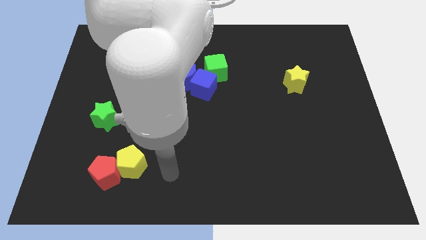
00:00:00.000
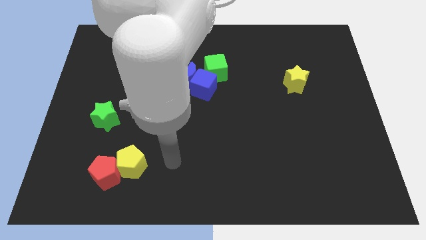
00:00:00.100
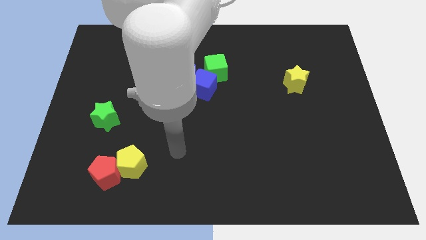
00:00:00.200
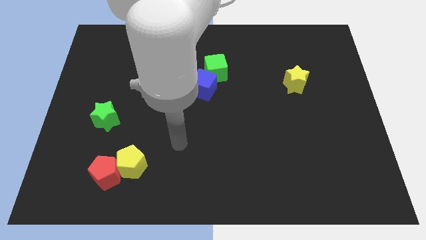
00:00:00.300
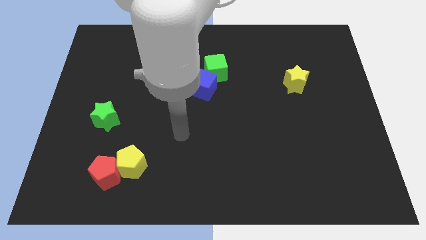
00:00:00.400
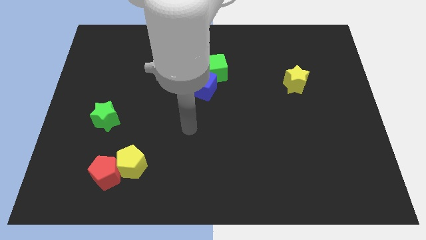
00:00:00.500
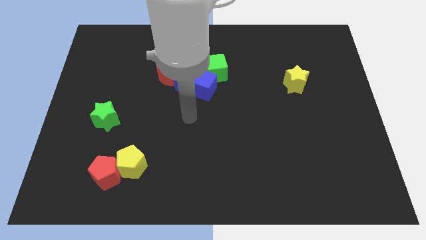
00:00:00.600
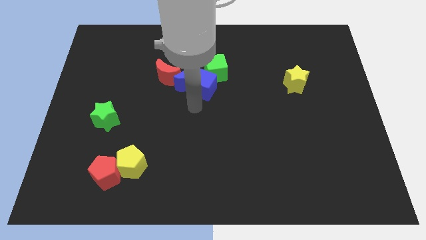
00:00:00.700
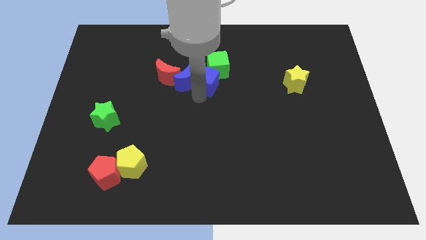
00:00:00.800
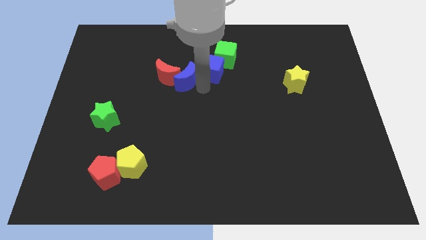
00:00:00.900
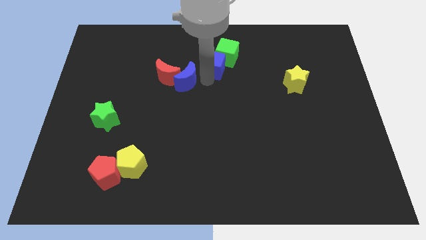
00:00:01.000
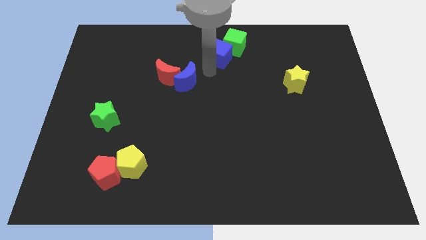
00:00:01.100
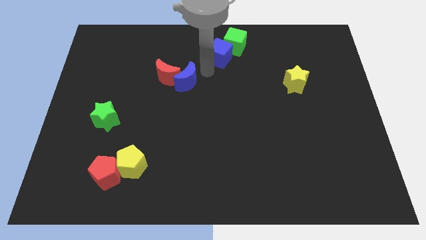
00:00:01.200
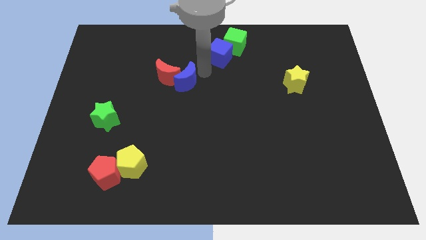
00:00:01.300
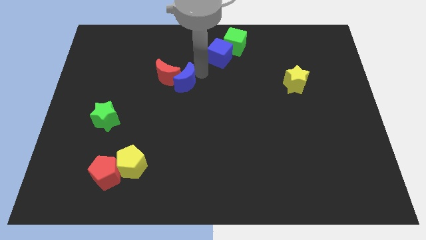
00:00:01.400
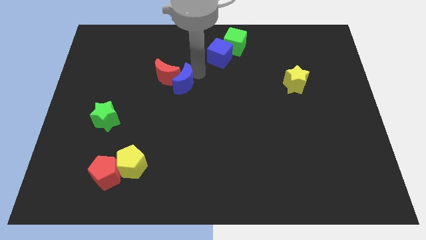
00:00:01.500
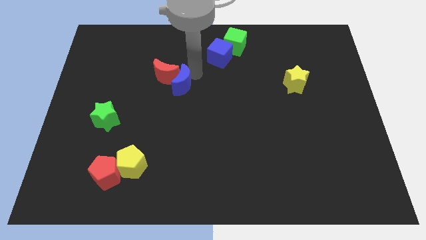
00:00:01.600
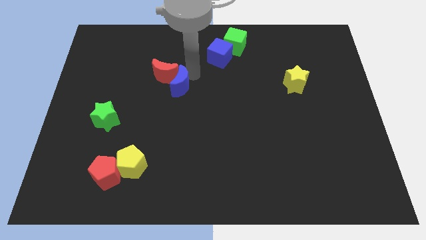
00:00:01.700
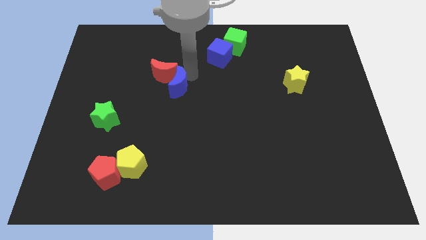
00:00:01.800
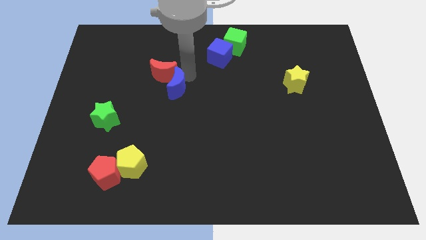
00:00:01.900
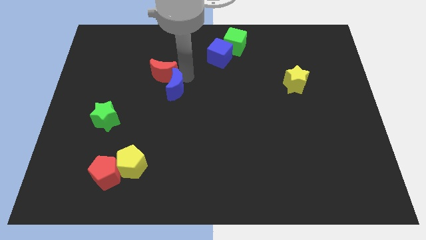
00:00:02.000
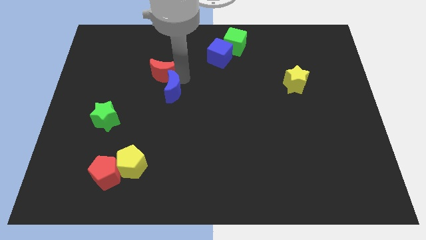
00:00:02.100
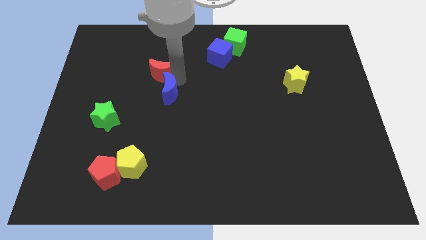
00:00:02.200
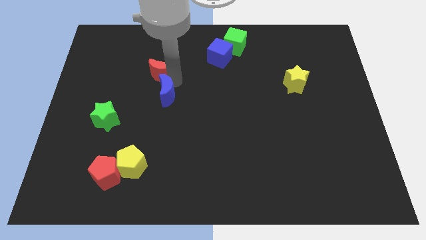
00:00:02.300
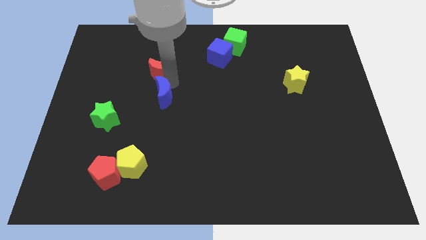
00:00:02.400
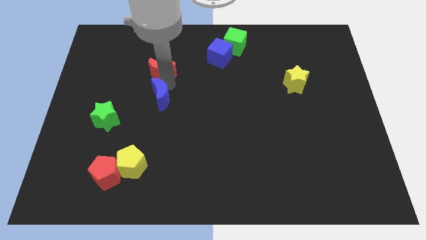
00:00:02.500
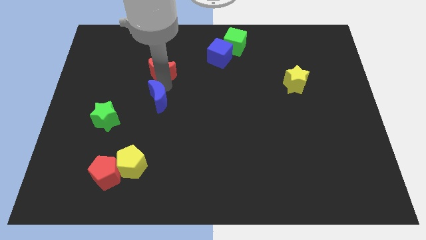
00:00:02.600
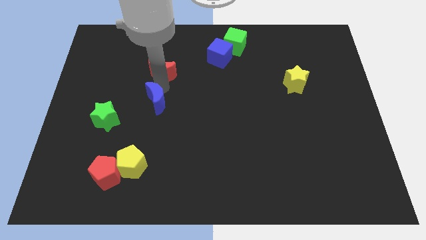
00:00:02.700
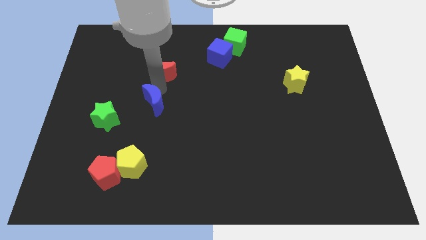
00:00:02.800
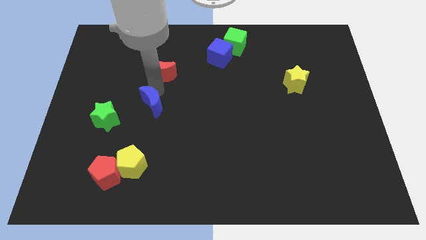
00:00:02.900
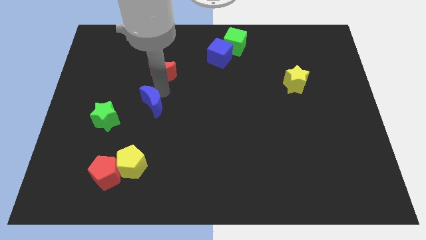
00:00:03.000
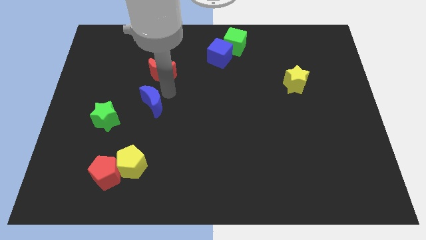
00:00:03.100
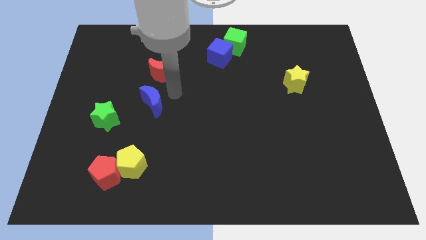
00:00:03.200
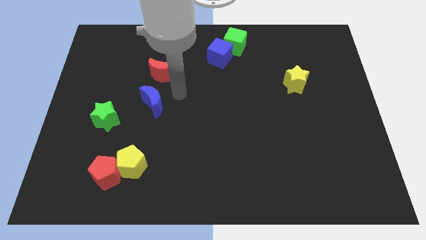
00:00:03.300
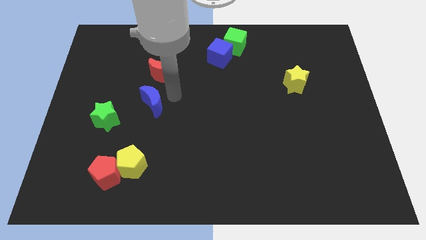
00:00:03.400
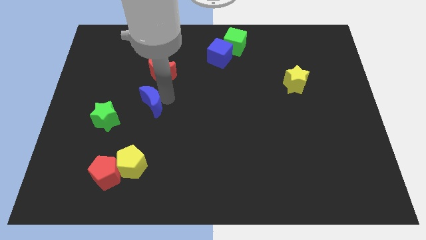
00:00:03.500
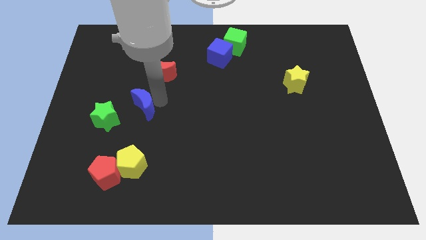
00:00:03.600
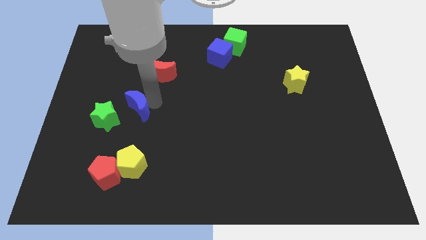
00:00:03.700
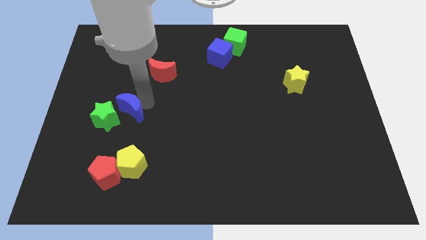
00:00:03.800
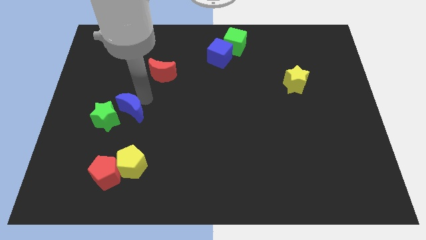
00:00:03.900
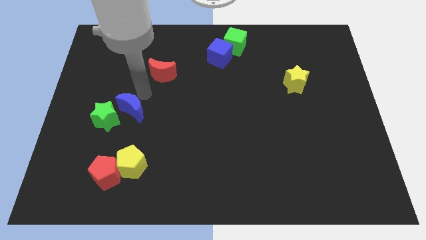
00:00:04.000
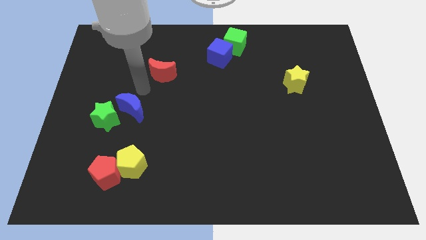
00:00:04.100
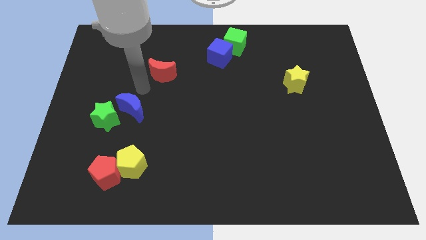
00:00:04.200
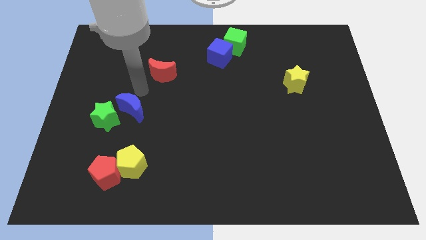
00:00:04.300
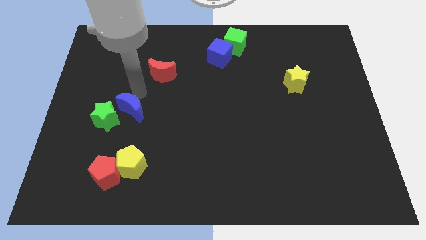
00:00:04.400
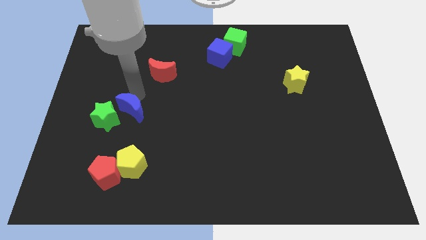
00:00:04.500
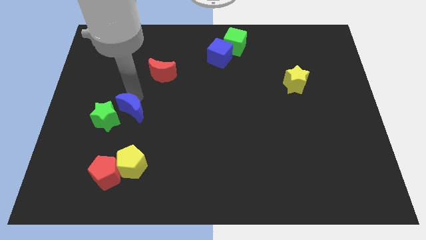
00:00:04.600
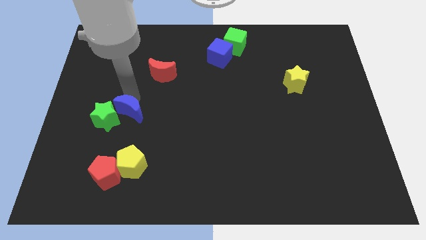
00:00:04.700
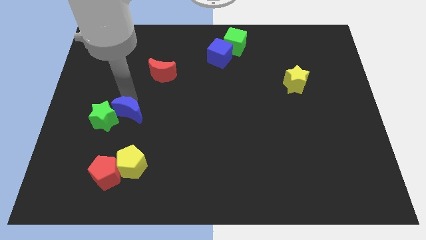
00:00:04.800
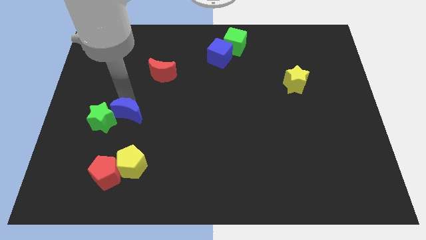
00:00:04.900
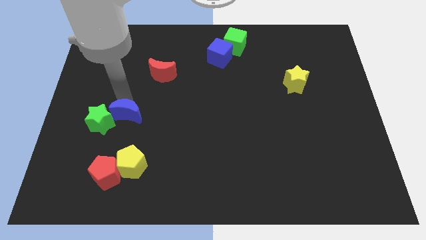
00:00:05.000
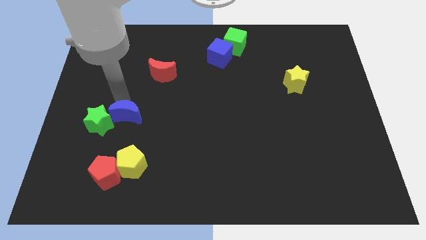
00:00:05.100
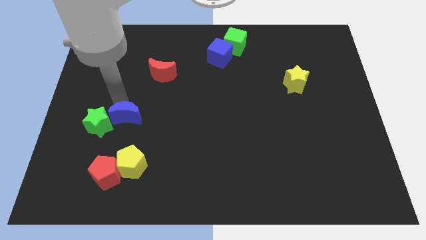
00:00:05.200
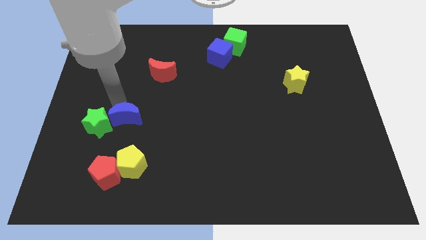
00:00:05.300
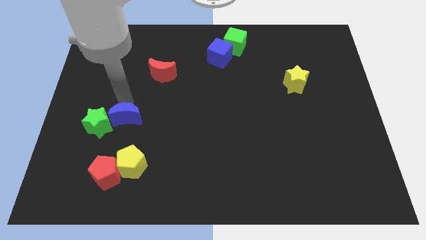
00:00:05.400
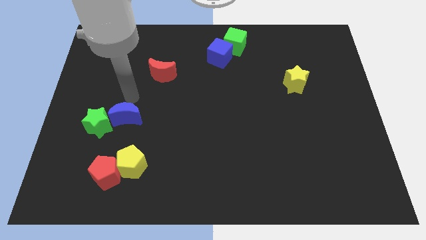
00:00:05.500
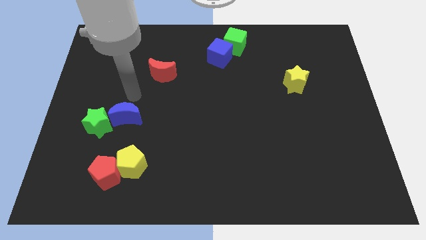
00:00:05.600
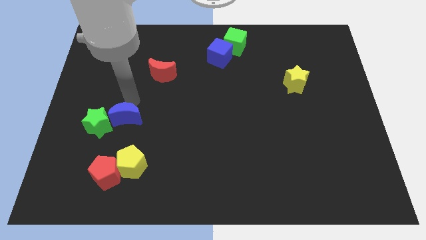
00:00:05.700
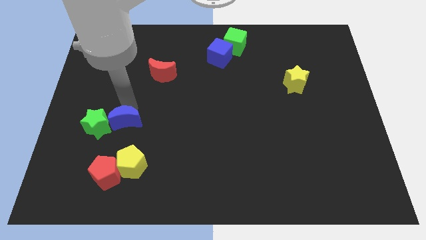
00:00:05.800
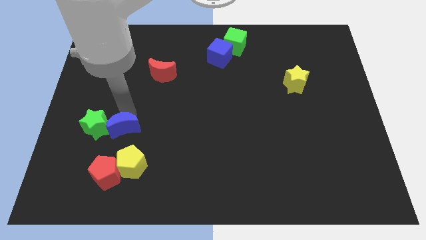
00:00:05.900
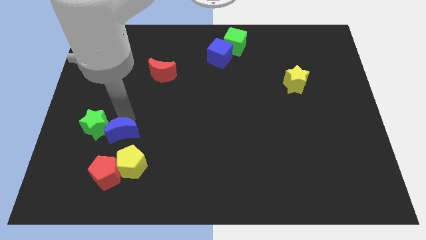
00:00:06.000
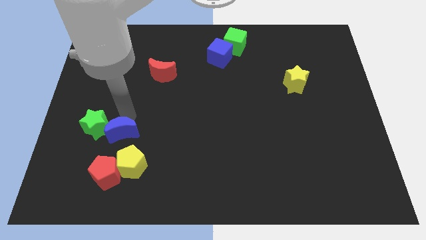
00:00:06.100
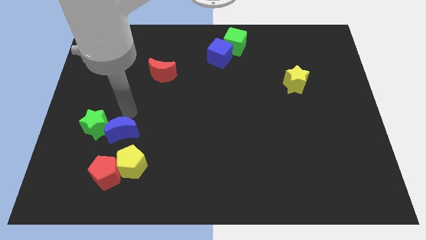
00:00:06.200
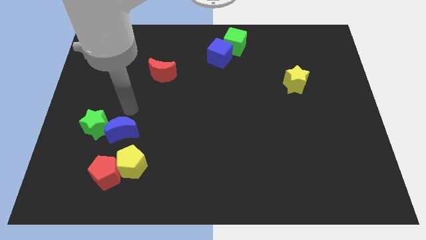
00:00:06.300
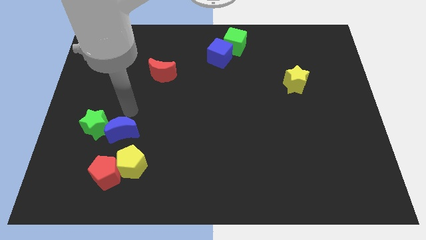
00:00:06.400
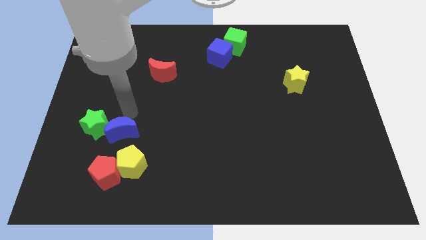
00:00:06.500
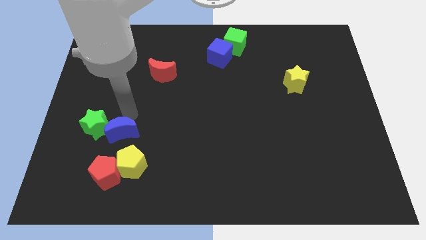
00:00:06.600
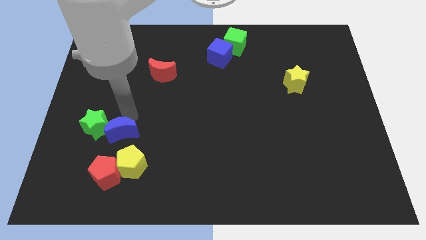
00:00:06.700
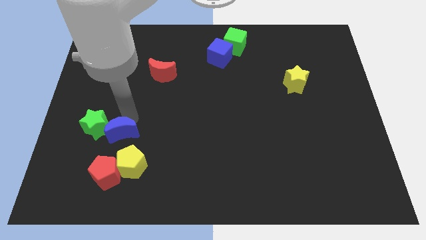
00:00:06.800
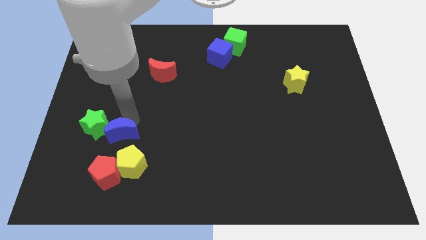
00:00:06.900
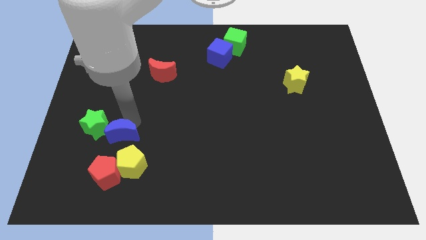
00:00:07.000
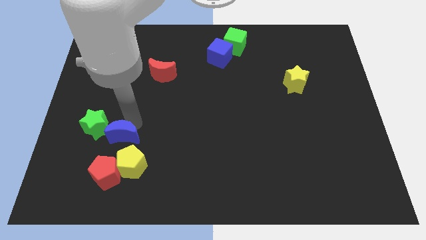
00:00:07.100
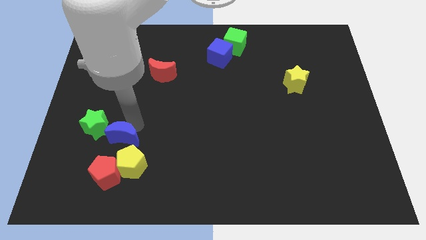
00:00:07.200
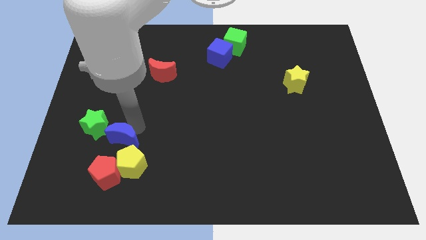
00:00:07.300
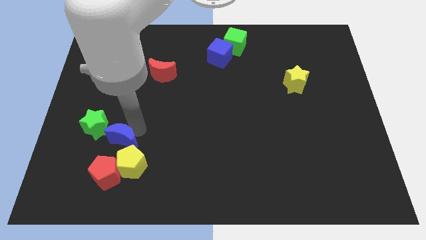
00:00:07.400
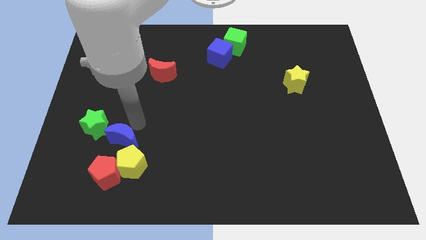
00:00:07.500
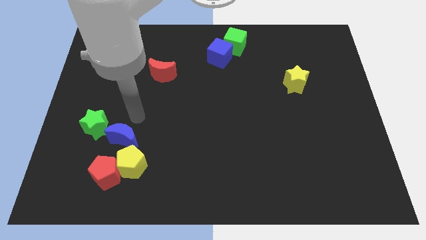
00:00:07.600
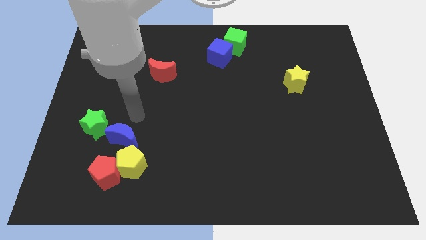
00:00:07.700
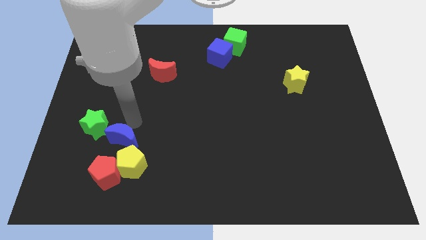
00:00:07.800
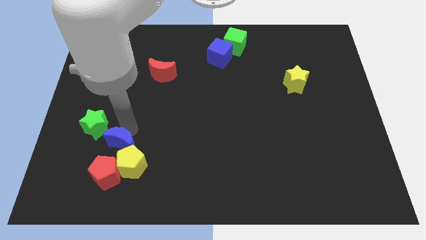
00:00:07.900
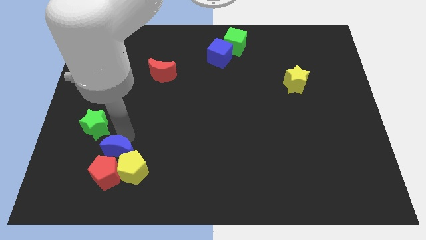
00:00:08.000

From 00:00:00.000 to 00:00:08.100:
push the blue moon towards the red pentagon
